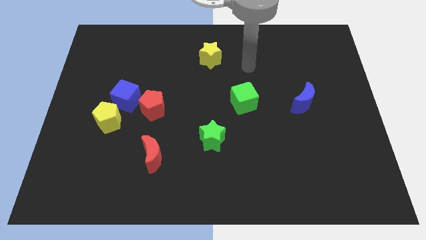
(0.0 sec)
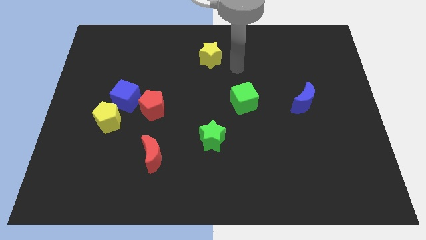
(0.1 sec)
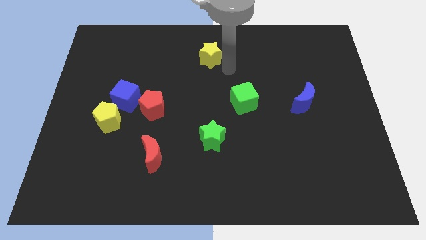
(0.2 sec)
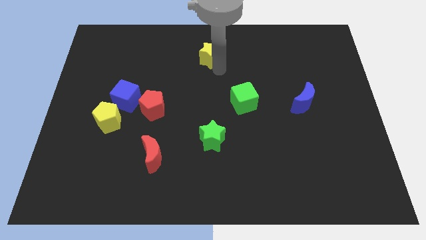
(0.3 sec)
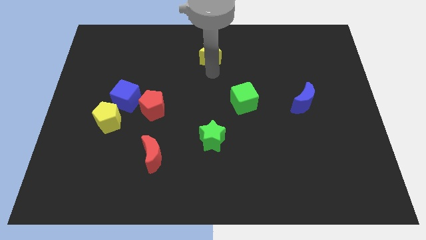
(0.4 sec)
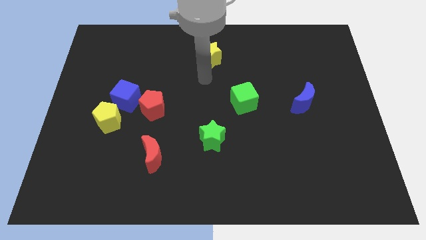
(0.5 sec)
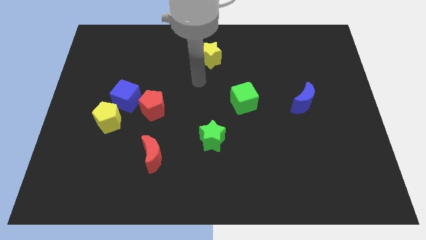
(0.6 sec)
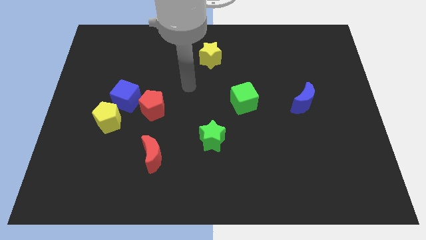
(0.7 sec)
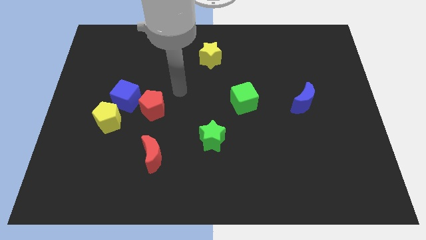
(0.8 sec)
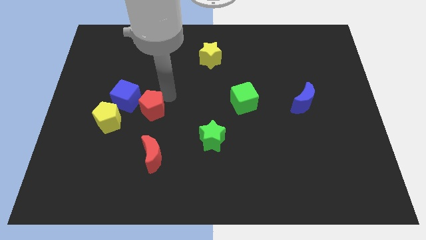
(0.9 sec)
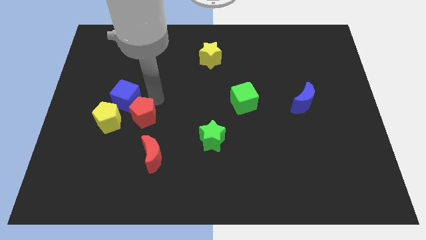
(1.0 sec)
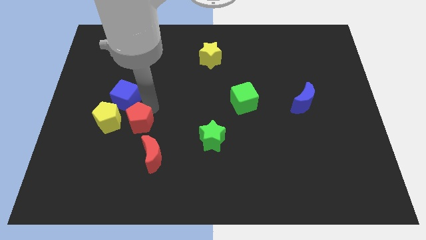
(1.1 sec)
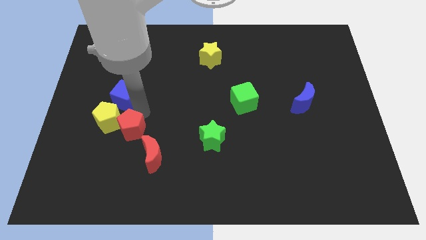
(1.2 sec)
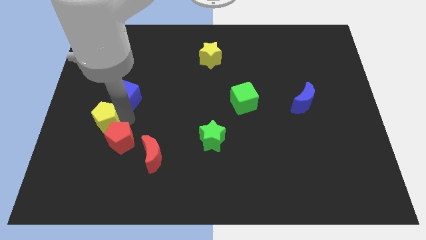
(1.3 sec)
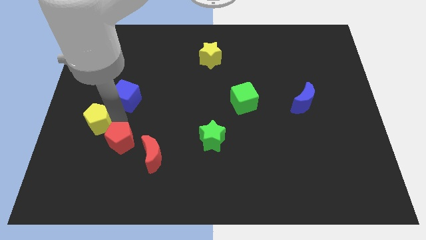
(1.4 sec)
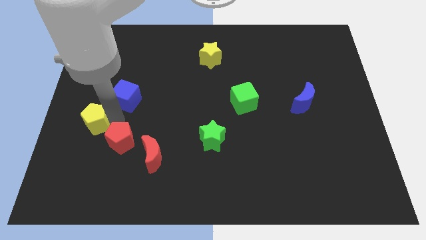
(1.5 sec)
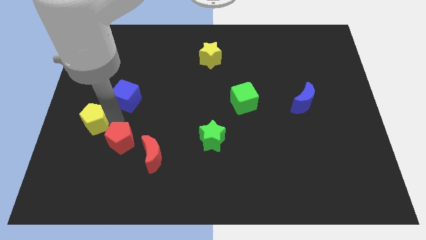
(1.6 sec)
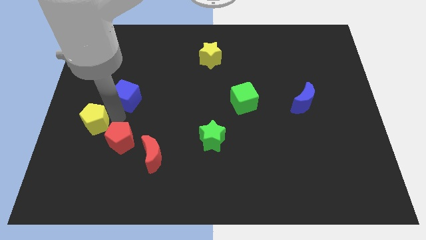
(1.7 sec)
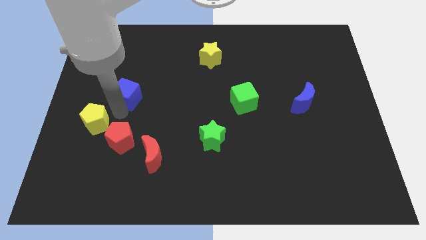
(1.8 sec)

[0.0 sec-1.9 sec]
separate the blue cube from the yellow pentagon and red pentagon

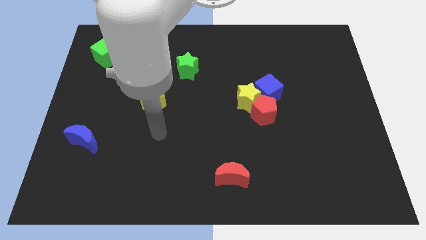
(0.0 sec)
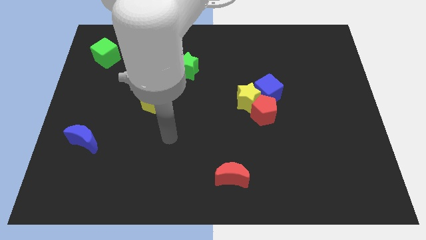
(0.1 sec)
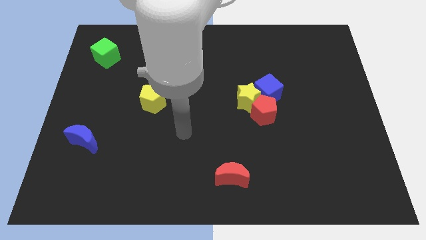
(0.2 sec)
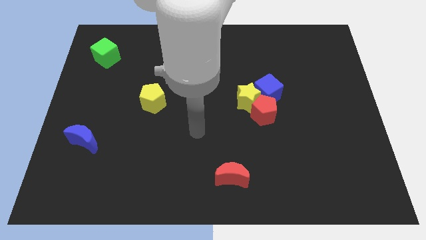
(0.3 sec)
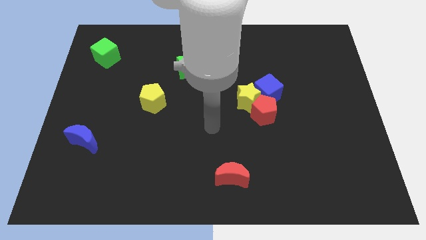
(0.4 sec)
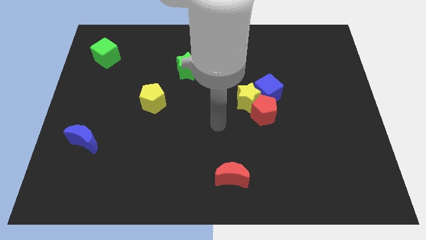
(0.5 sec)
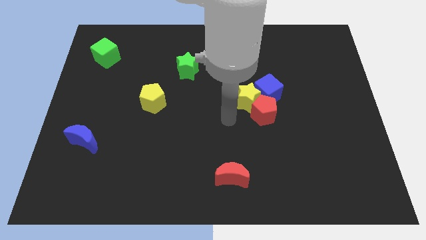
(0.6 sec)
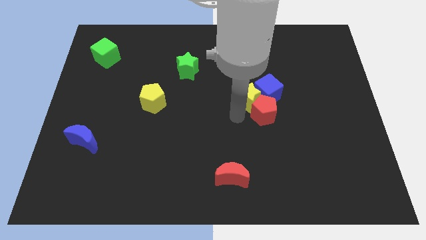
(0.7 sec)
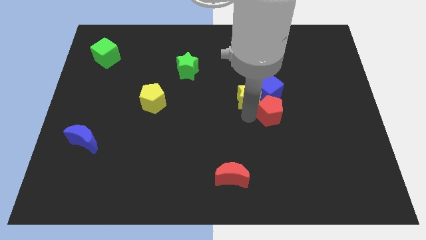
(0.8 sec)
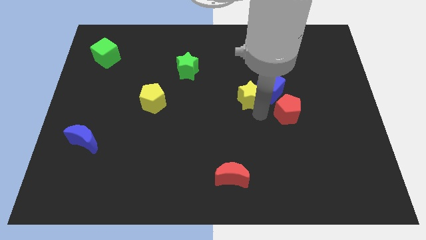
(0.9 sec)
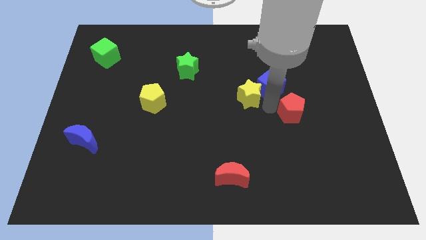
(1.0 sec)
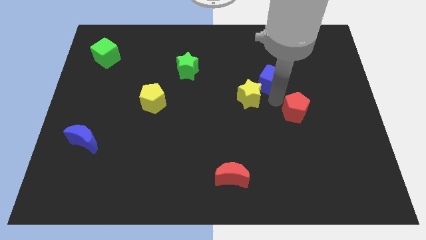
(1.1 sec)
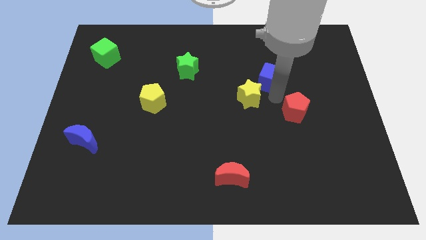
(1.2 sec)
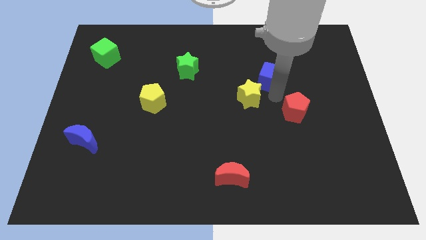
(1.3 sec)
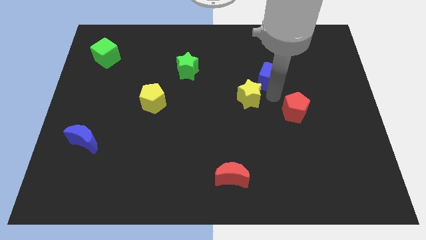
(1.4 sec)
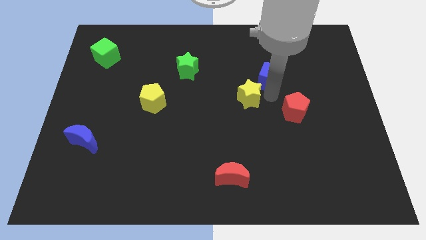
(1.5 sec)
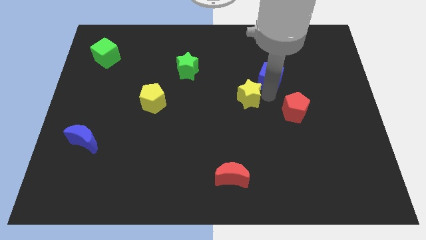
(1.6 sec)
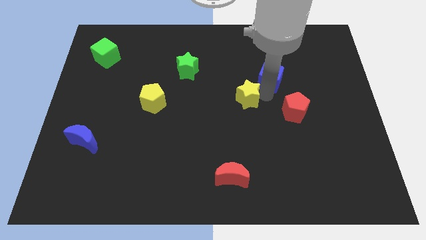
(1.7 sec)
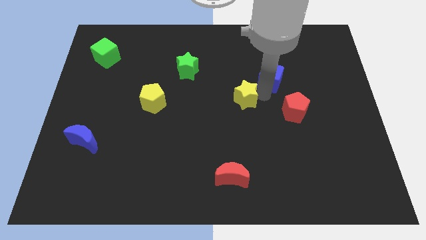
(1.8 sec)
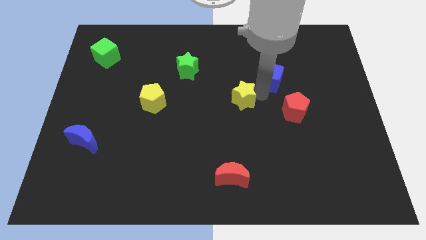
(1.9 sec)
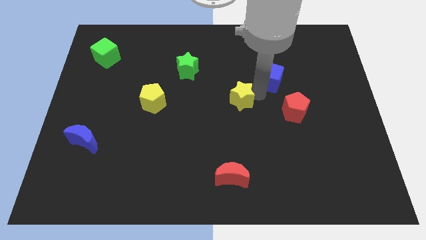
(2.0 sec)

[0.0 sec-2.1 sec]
pull the yellow star apart from the red pentagon and blue cube

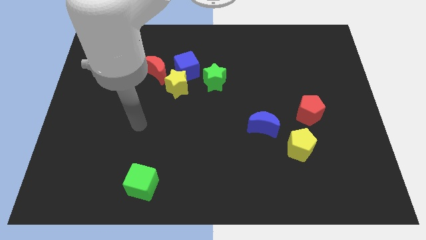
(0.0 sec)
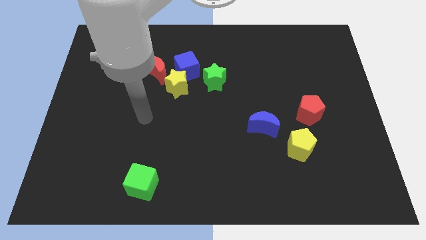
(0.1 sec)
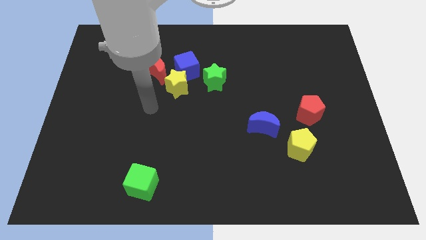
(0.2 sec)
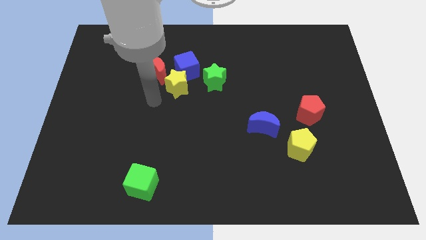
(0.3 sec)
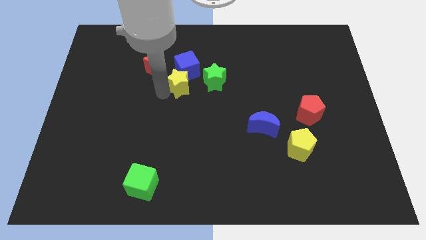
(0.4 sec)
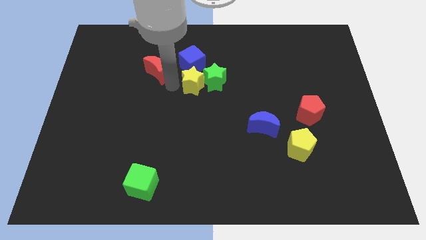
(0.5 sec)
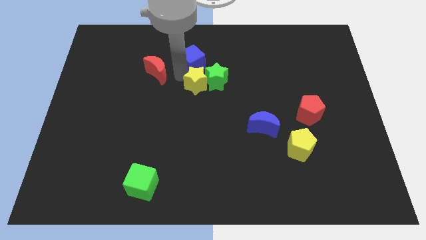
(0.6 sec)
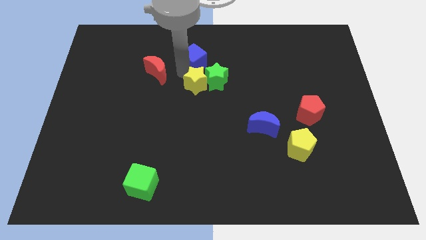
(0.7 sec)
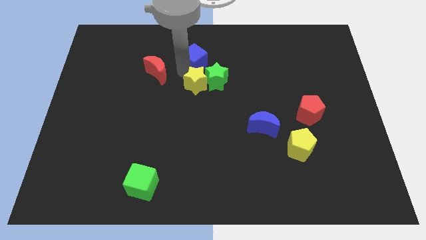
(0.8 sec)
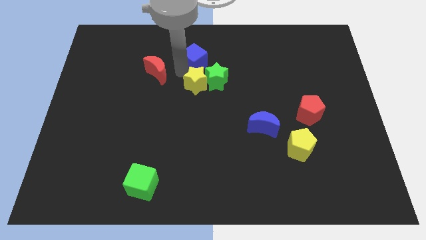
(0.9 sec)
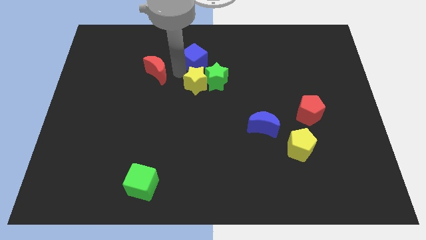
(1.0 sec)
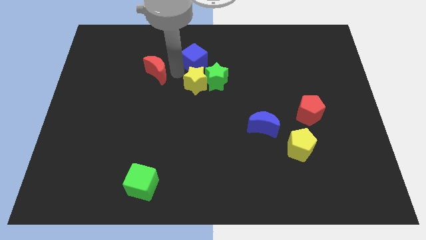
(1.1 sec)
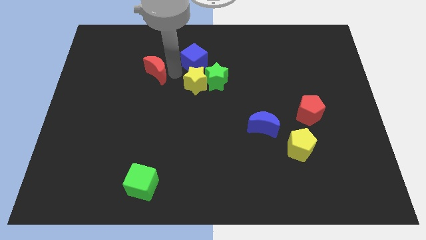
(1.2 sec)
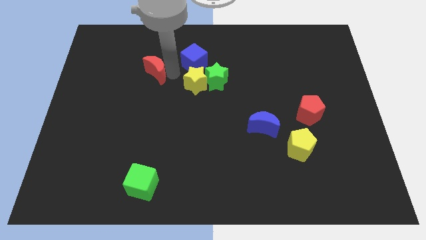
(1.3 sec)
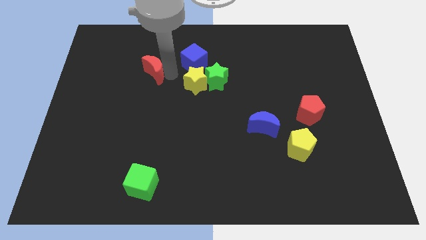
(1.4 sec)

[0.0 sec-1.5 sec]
pull the red moon apart from the yellow star and blue cube

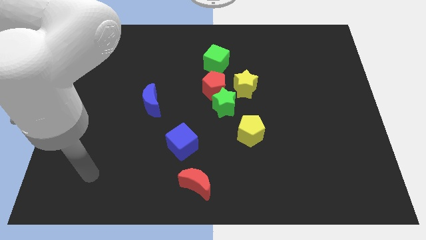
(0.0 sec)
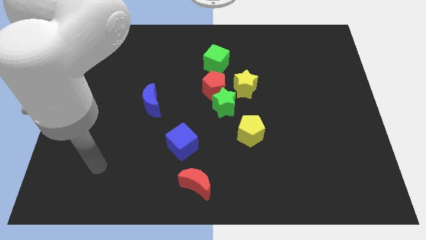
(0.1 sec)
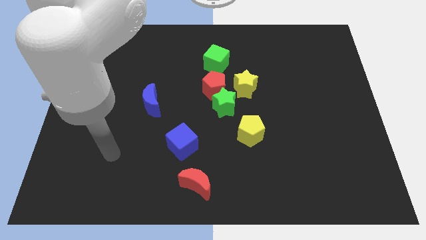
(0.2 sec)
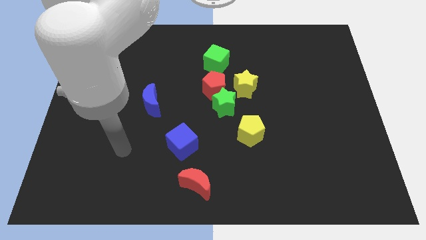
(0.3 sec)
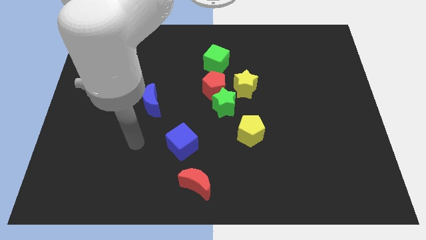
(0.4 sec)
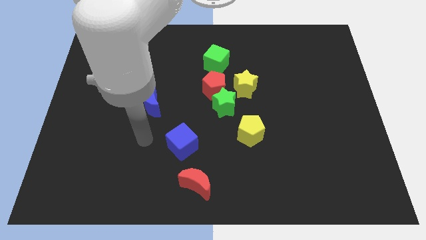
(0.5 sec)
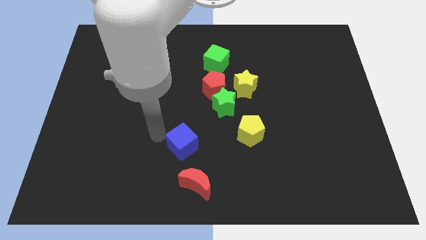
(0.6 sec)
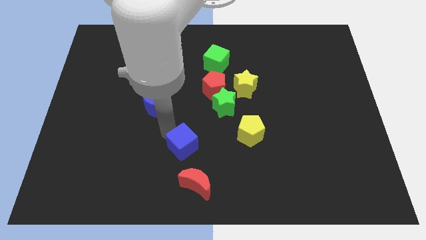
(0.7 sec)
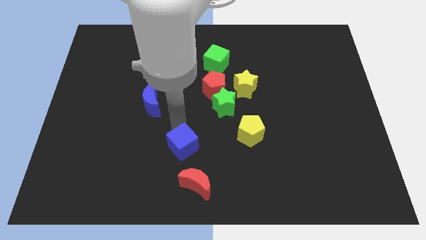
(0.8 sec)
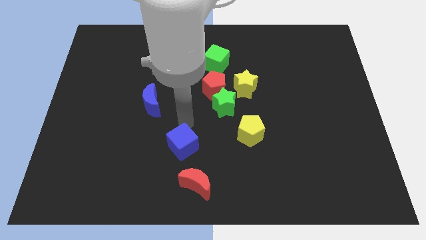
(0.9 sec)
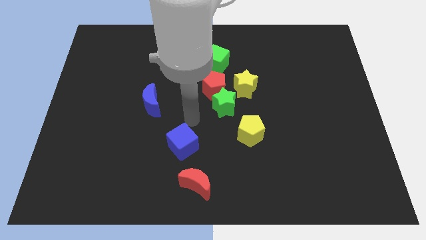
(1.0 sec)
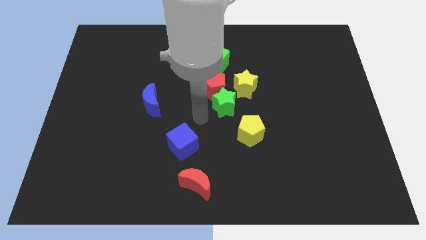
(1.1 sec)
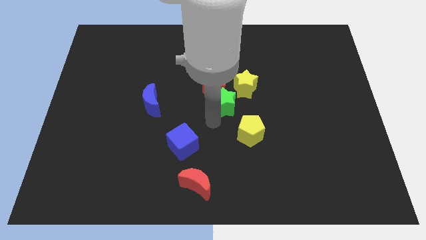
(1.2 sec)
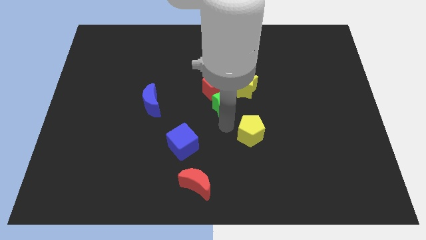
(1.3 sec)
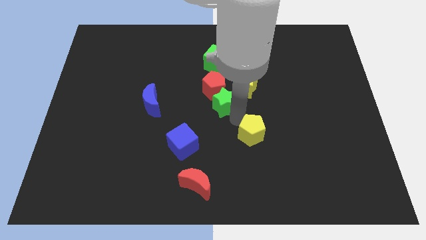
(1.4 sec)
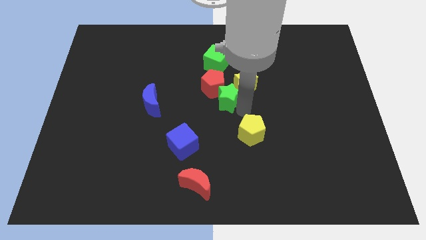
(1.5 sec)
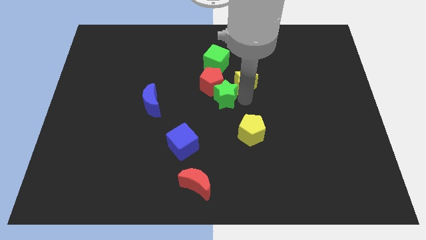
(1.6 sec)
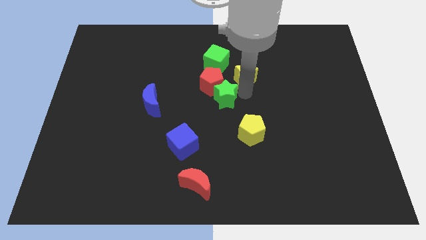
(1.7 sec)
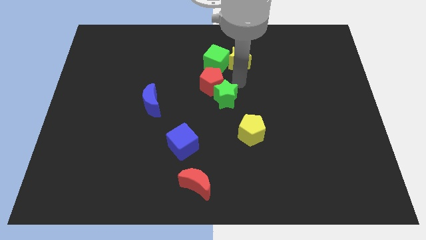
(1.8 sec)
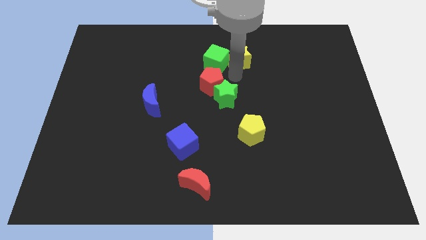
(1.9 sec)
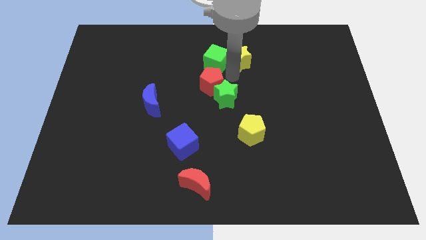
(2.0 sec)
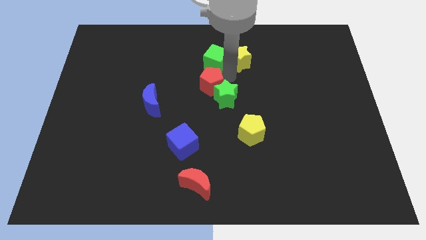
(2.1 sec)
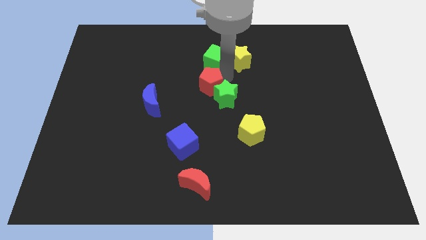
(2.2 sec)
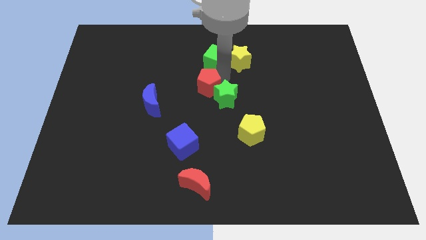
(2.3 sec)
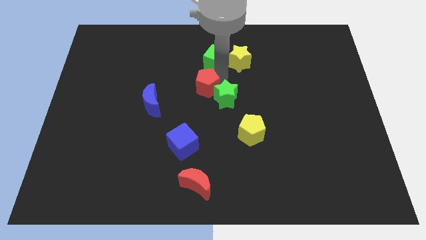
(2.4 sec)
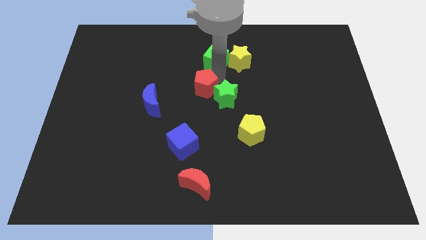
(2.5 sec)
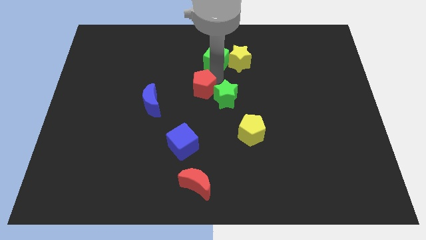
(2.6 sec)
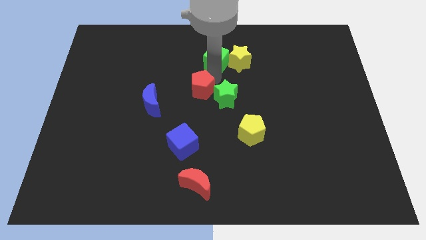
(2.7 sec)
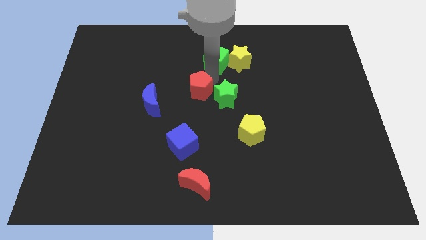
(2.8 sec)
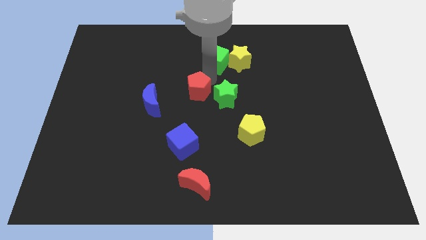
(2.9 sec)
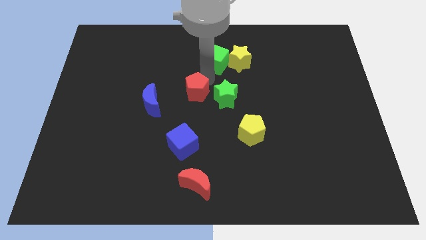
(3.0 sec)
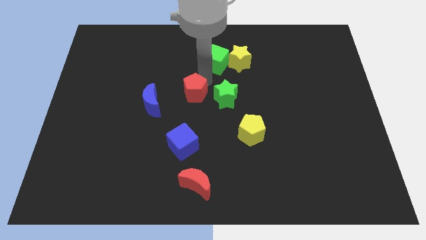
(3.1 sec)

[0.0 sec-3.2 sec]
separate the red pentagon from the clump

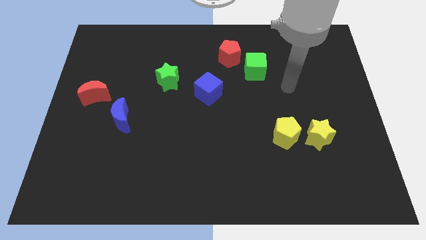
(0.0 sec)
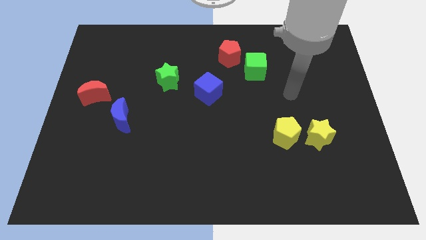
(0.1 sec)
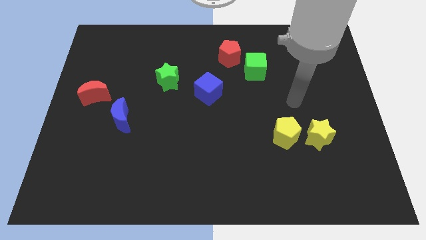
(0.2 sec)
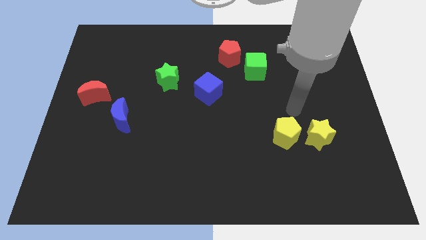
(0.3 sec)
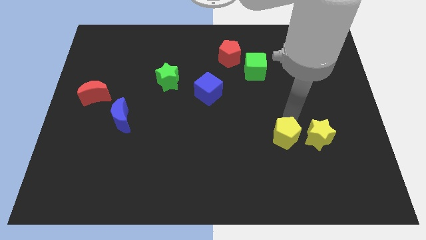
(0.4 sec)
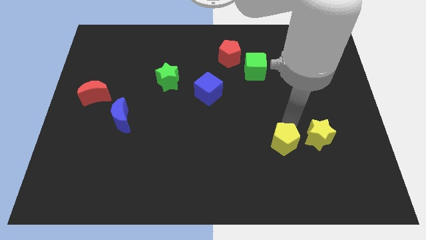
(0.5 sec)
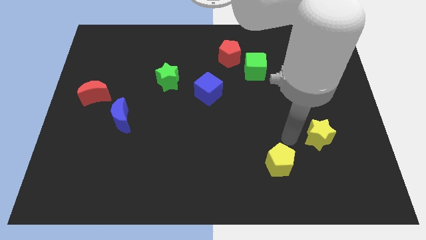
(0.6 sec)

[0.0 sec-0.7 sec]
pull the yellow star apart from the yellow pentagon
